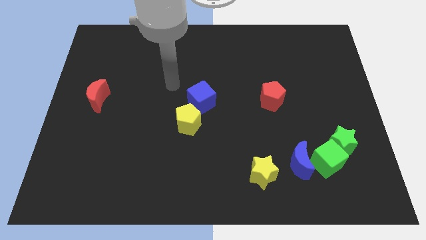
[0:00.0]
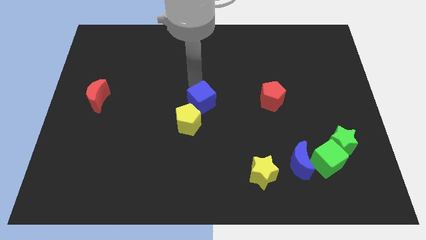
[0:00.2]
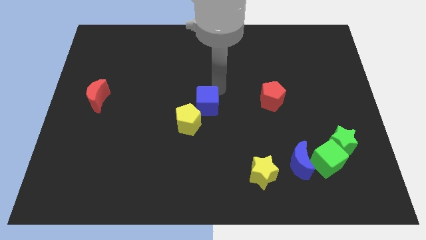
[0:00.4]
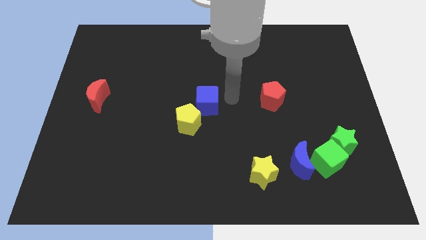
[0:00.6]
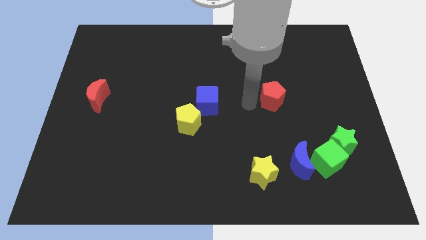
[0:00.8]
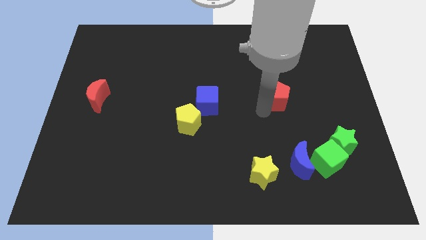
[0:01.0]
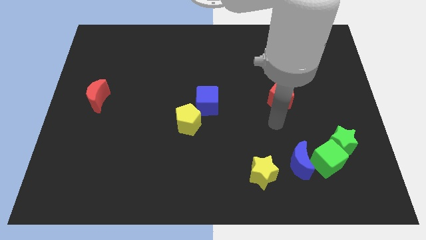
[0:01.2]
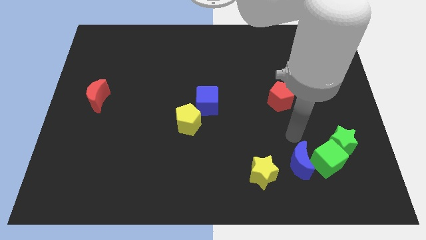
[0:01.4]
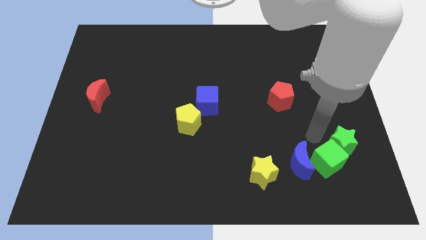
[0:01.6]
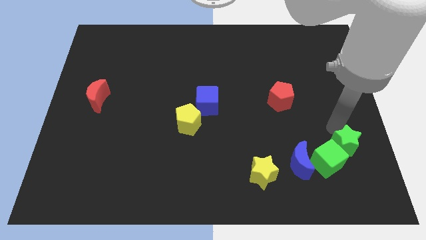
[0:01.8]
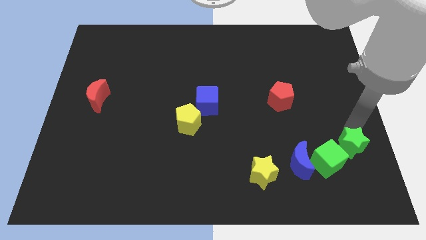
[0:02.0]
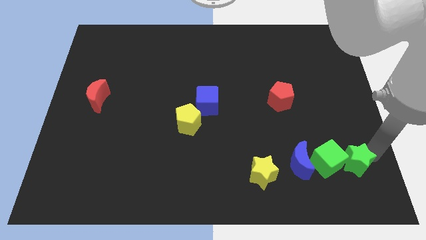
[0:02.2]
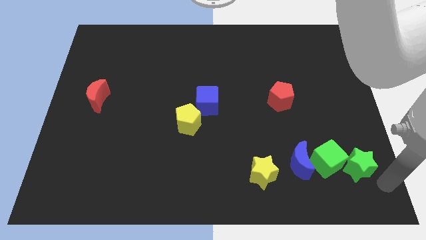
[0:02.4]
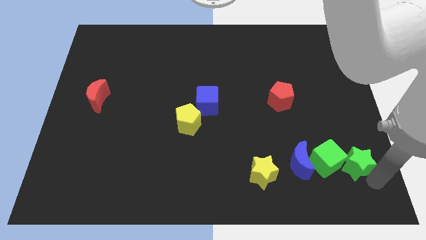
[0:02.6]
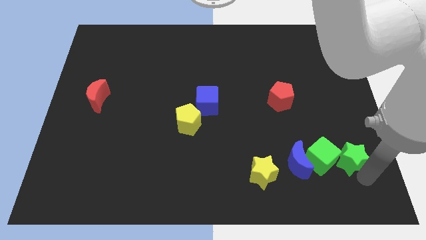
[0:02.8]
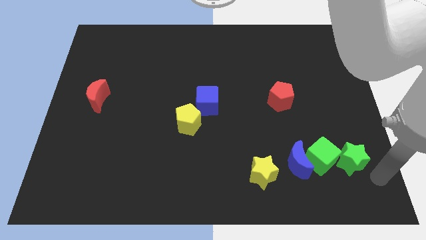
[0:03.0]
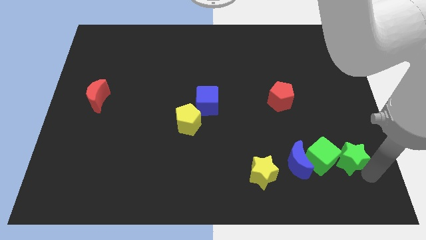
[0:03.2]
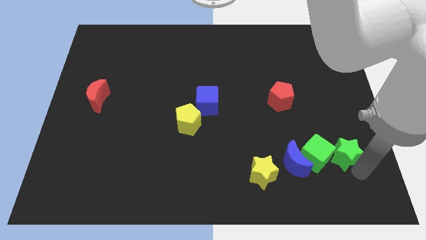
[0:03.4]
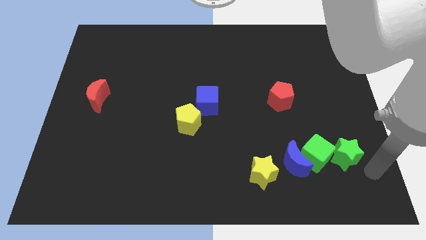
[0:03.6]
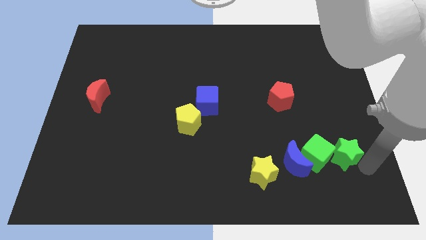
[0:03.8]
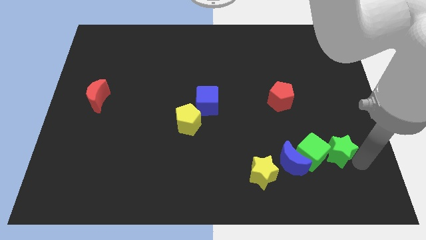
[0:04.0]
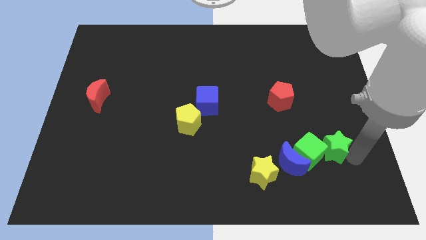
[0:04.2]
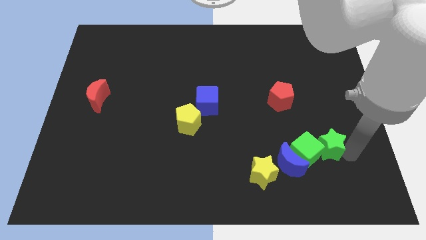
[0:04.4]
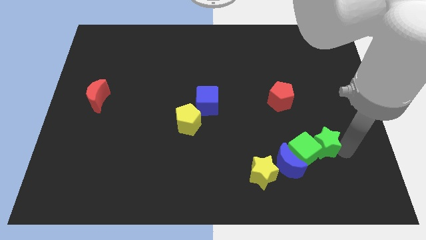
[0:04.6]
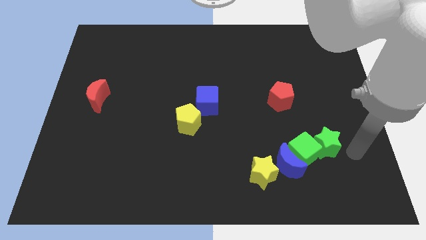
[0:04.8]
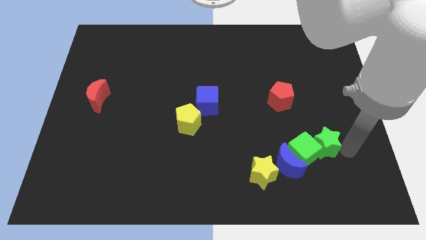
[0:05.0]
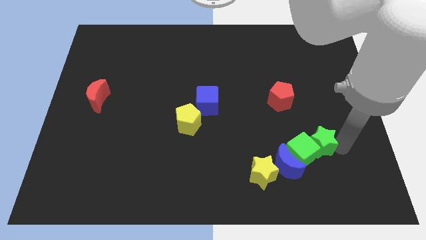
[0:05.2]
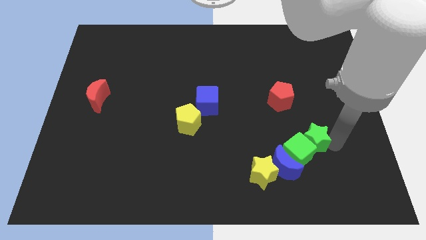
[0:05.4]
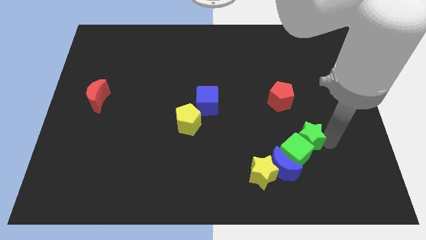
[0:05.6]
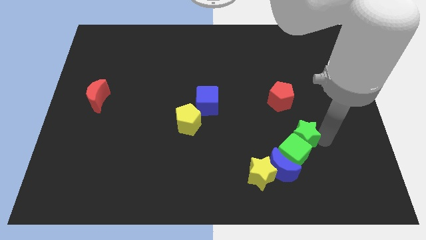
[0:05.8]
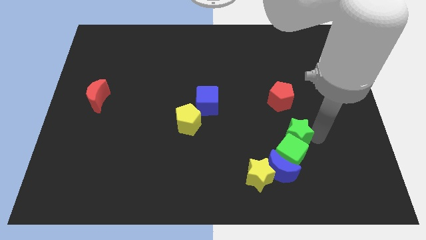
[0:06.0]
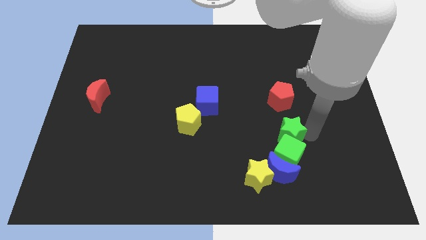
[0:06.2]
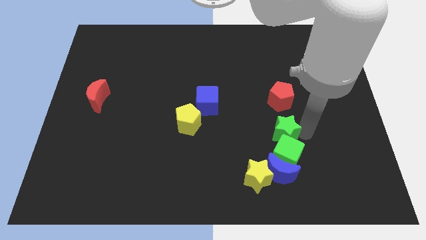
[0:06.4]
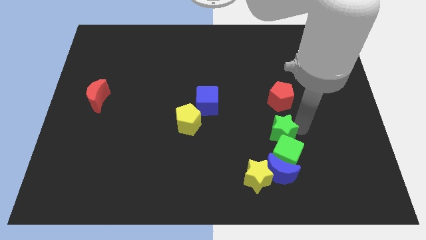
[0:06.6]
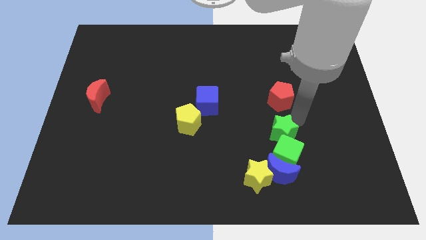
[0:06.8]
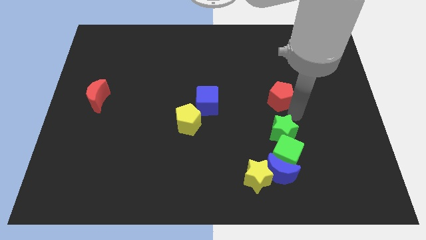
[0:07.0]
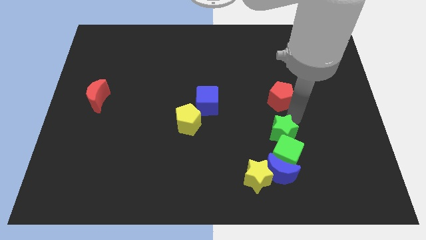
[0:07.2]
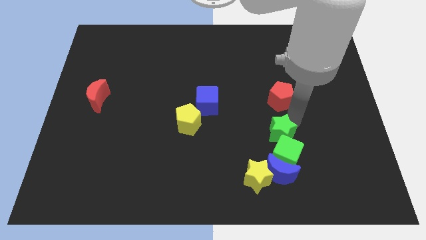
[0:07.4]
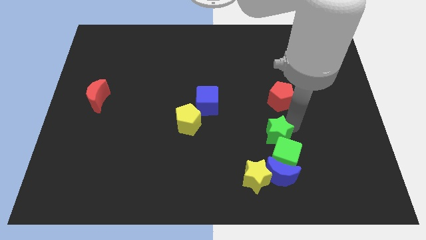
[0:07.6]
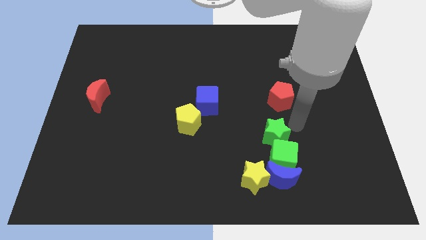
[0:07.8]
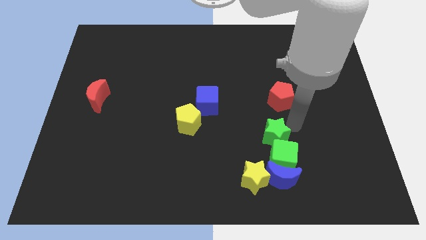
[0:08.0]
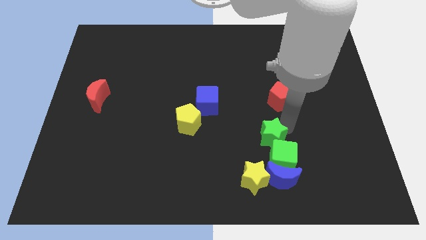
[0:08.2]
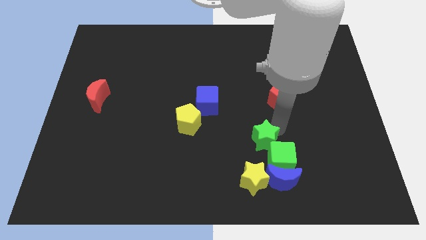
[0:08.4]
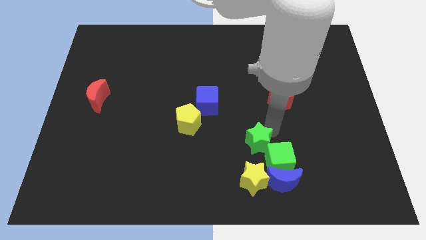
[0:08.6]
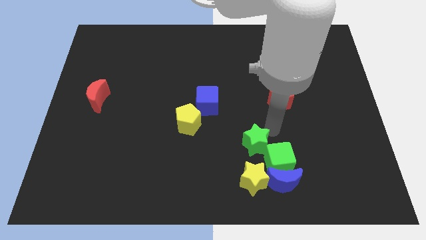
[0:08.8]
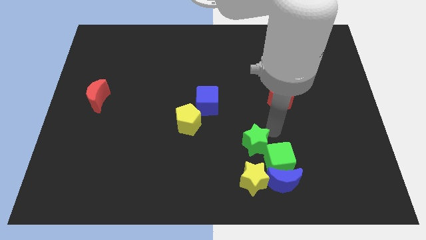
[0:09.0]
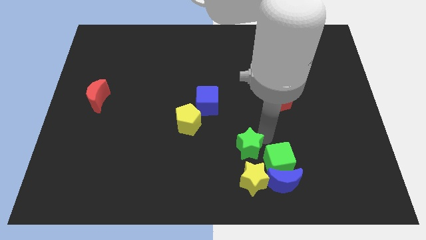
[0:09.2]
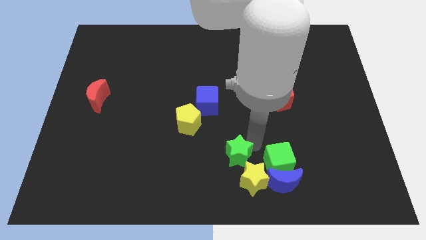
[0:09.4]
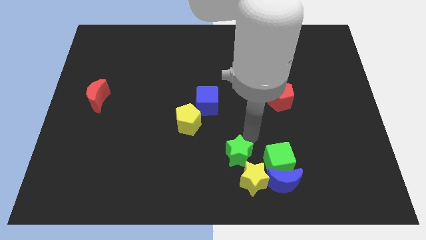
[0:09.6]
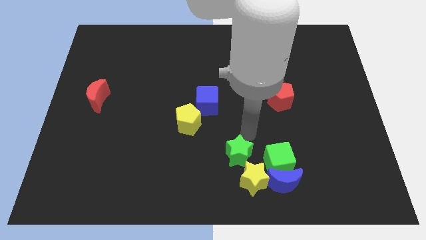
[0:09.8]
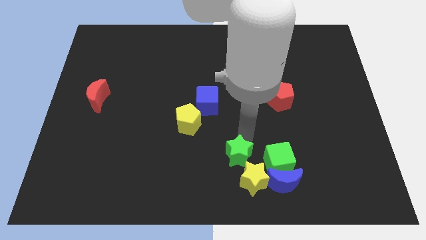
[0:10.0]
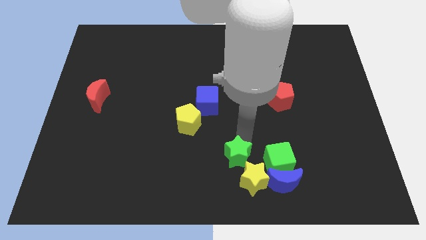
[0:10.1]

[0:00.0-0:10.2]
put the green star to the bottom

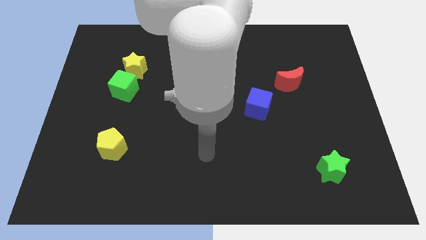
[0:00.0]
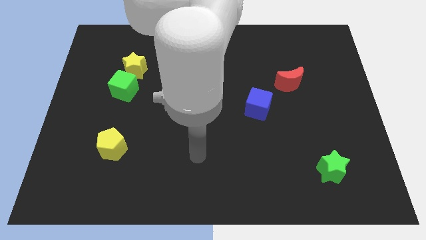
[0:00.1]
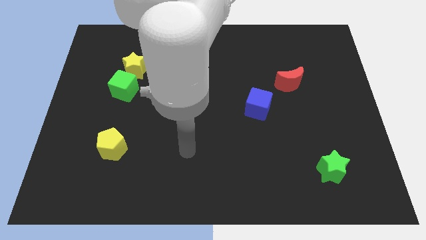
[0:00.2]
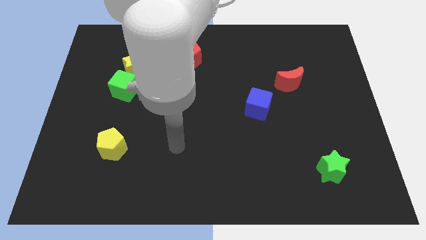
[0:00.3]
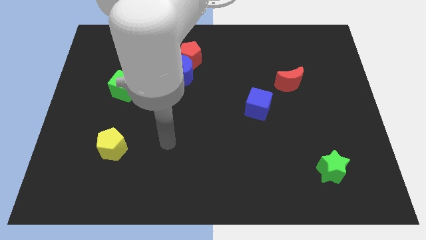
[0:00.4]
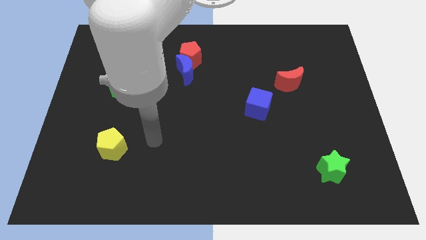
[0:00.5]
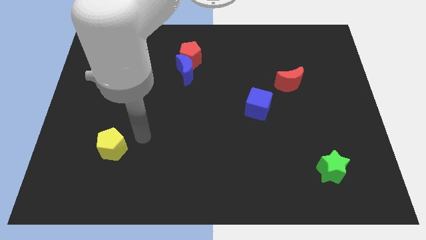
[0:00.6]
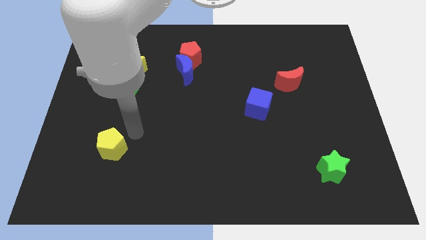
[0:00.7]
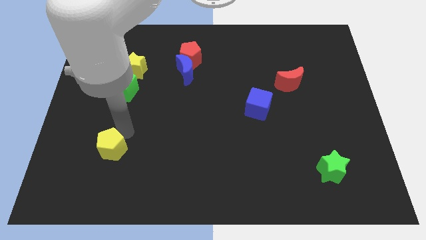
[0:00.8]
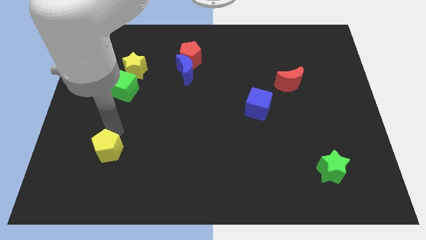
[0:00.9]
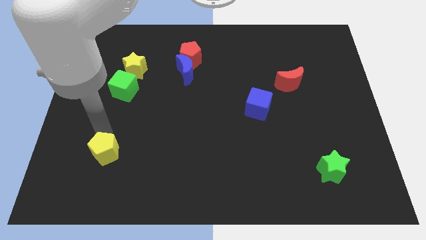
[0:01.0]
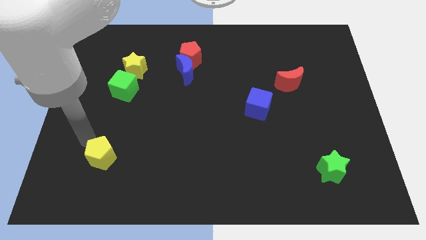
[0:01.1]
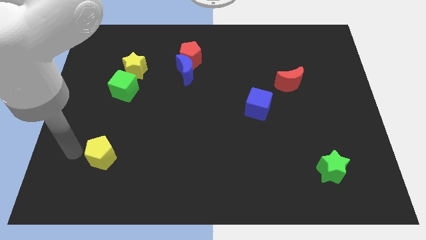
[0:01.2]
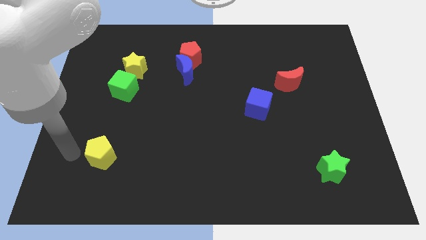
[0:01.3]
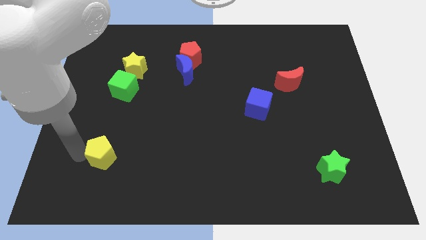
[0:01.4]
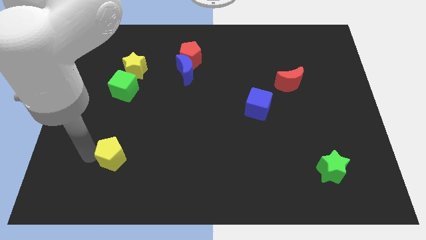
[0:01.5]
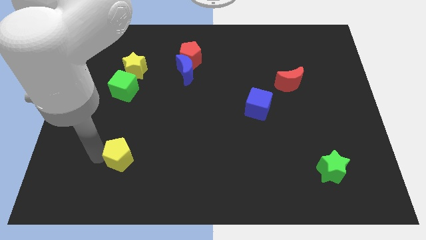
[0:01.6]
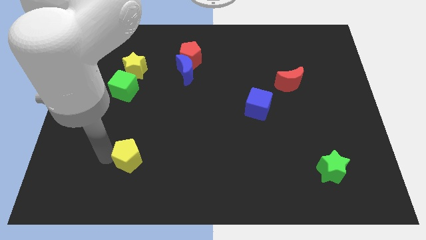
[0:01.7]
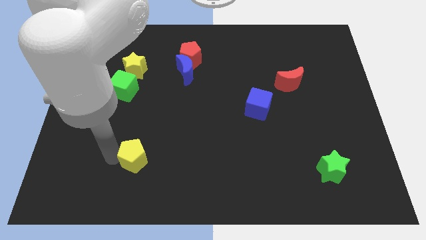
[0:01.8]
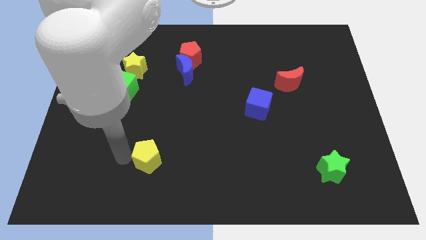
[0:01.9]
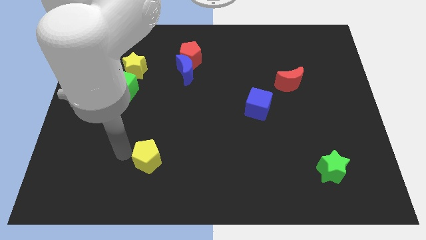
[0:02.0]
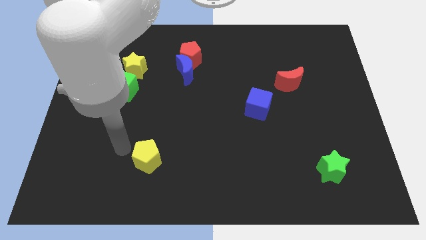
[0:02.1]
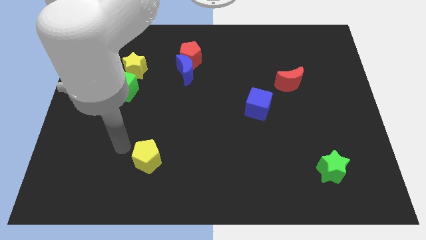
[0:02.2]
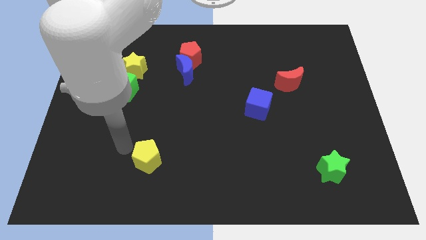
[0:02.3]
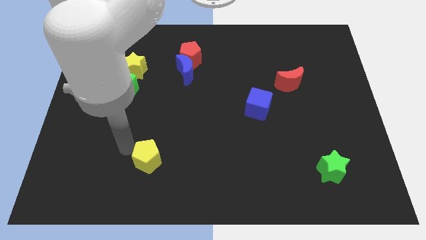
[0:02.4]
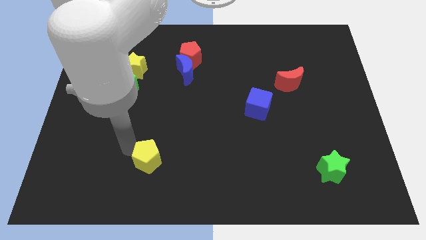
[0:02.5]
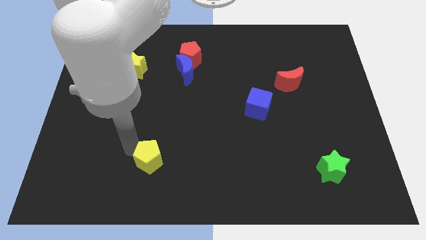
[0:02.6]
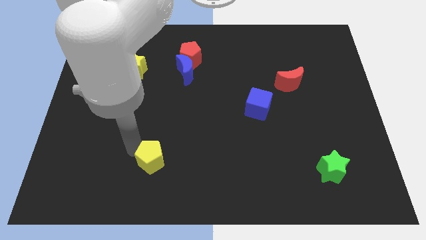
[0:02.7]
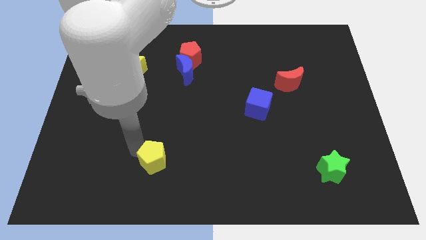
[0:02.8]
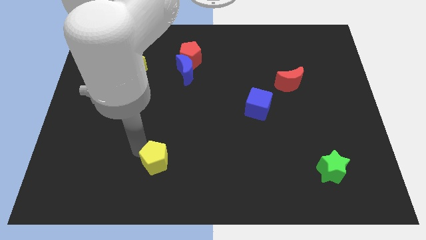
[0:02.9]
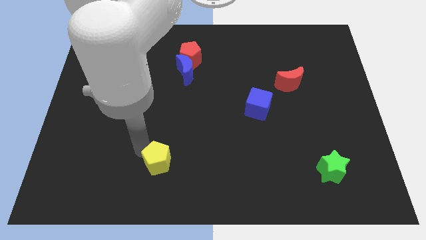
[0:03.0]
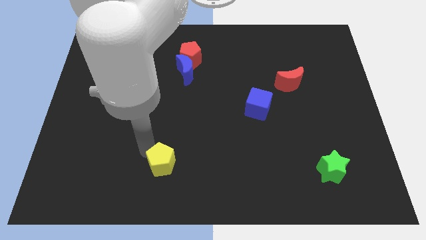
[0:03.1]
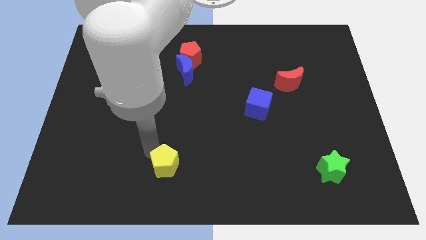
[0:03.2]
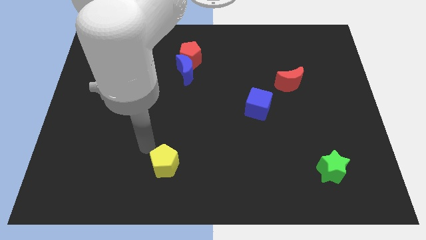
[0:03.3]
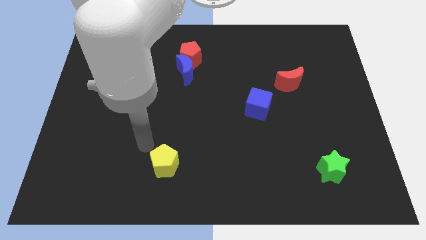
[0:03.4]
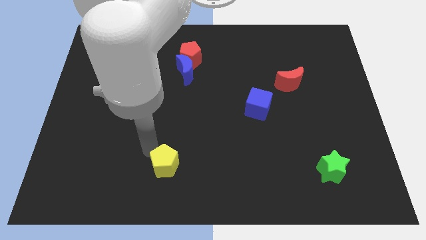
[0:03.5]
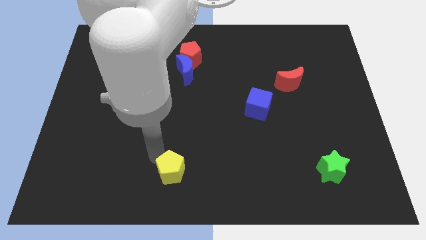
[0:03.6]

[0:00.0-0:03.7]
put the yellow pentagon to the bottom side
